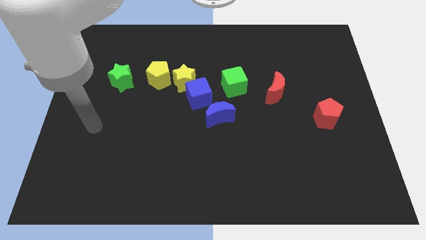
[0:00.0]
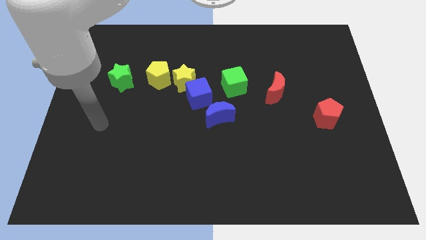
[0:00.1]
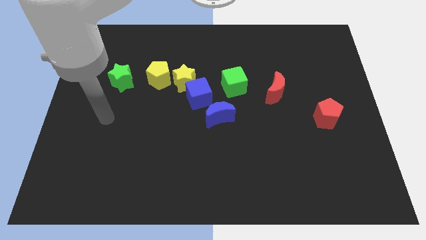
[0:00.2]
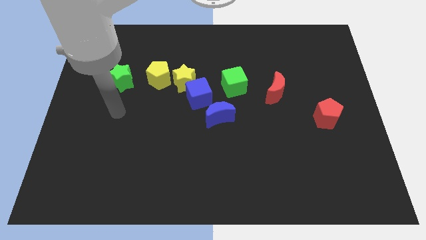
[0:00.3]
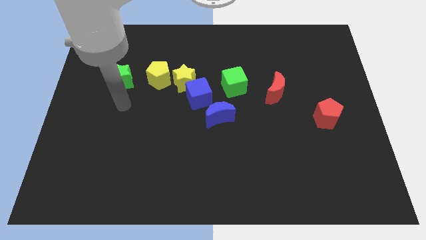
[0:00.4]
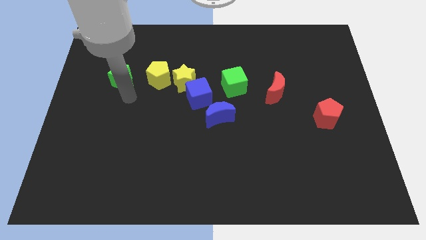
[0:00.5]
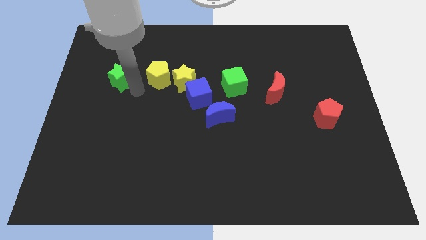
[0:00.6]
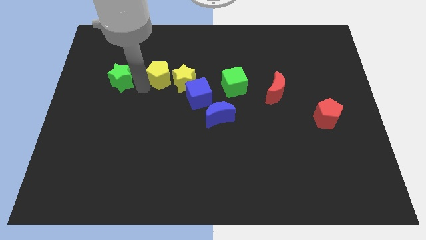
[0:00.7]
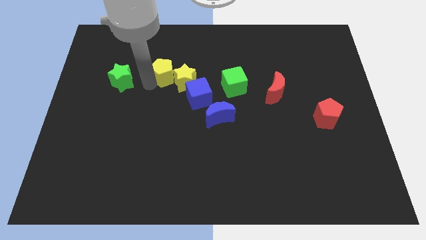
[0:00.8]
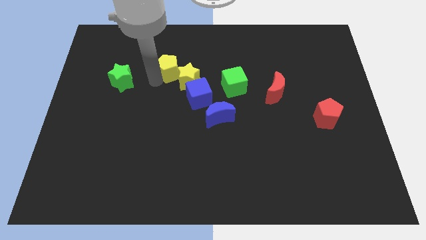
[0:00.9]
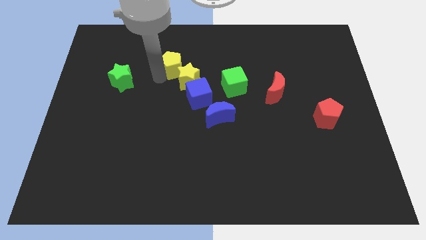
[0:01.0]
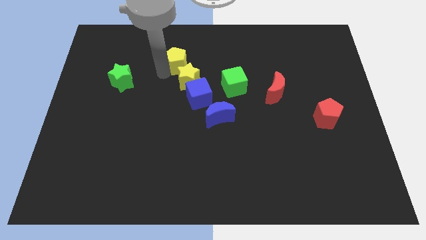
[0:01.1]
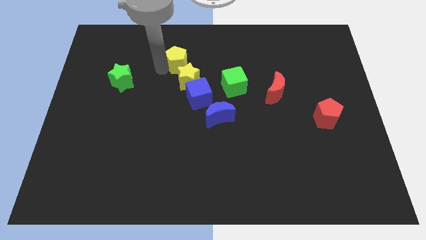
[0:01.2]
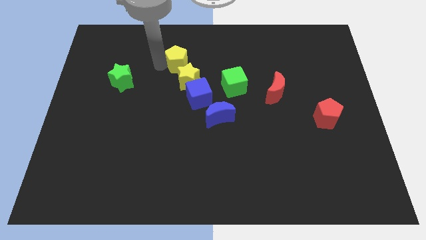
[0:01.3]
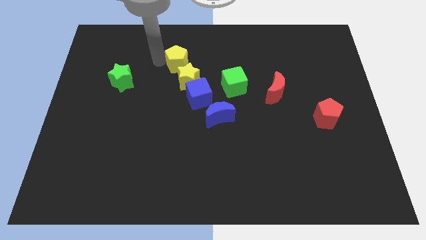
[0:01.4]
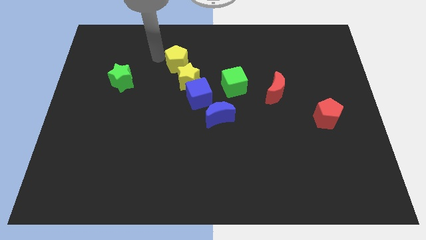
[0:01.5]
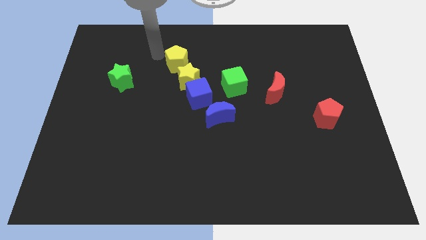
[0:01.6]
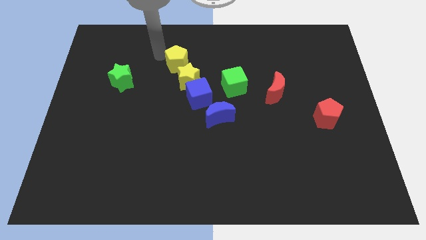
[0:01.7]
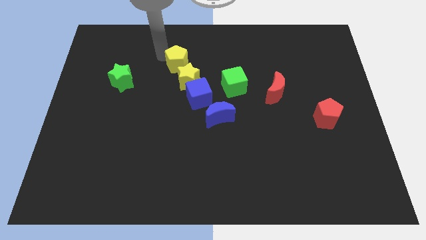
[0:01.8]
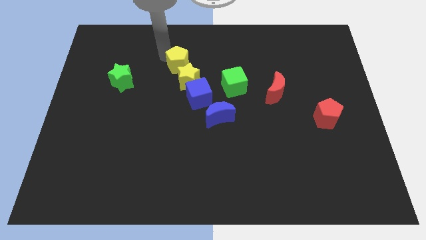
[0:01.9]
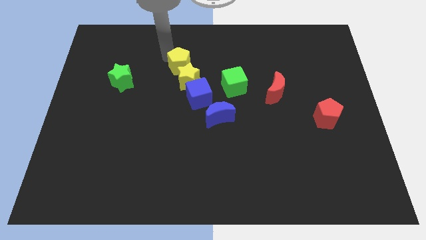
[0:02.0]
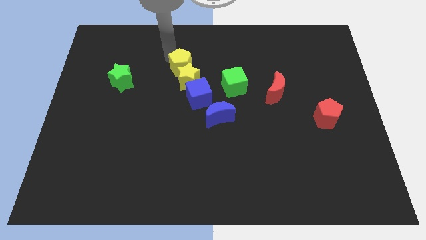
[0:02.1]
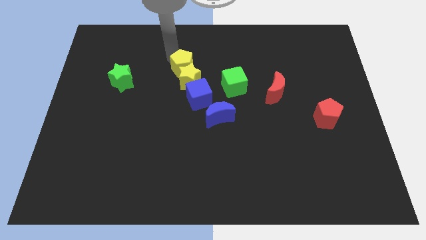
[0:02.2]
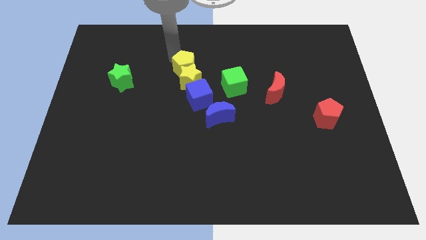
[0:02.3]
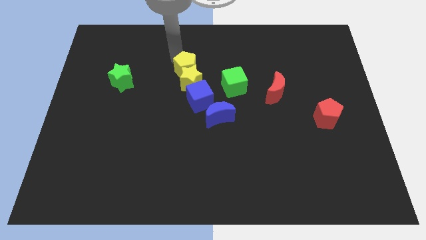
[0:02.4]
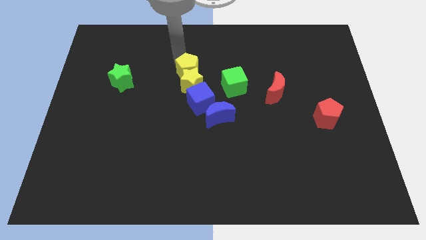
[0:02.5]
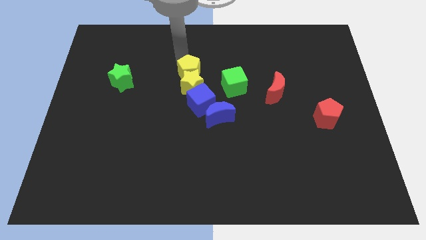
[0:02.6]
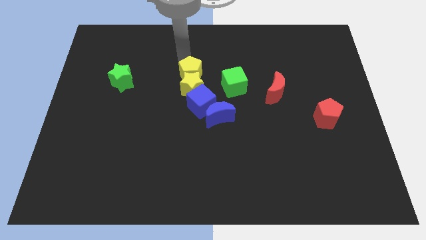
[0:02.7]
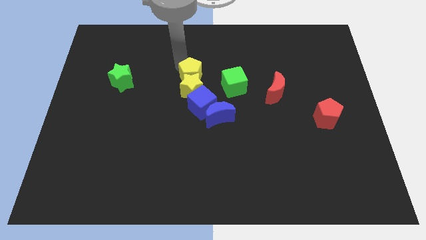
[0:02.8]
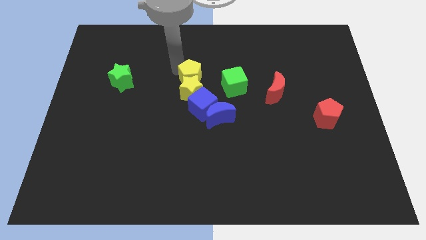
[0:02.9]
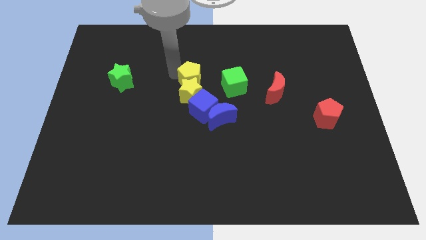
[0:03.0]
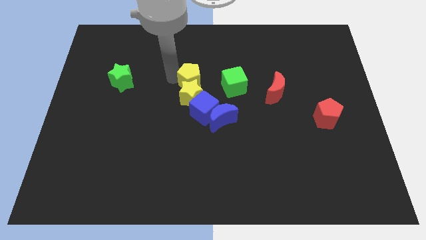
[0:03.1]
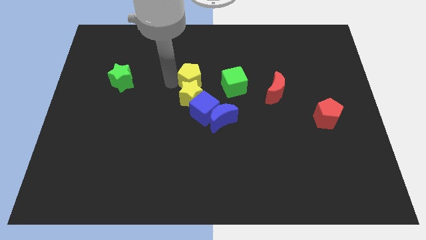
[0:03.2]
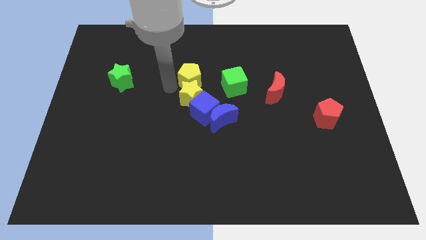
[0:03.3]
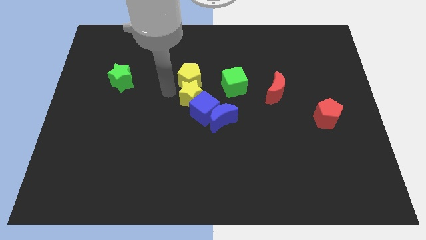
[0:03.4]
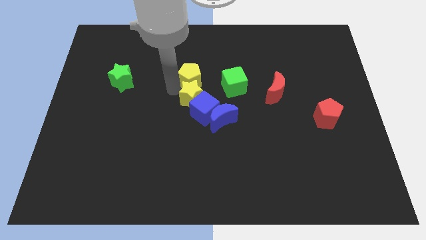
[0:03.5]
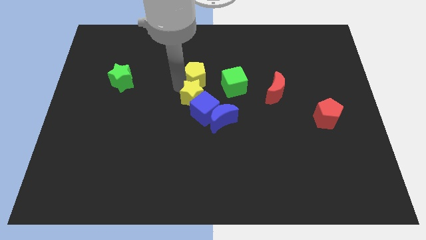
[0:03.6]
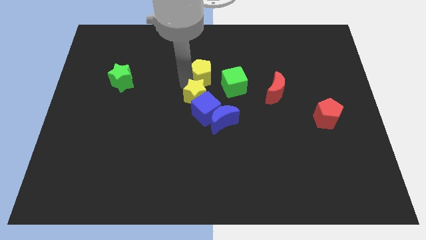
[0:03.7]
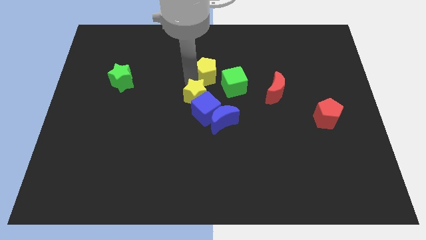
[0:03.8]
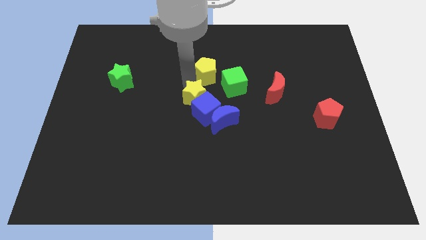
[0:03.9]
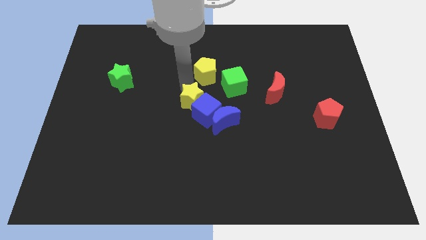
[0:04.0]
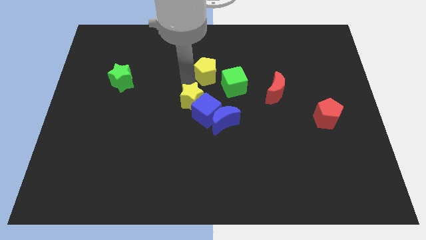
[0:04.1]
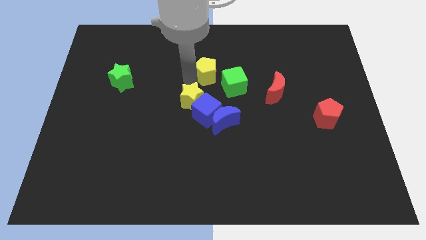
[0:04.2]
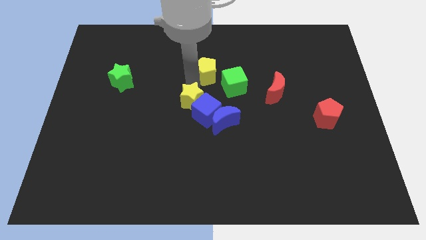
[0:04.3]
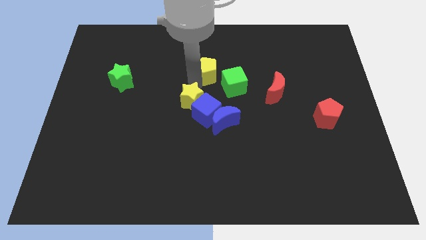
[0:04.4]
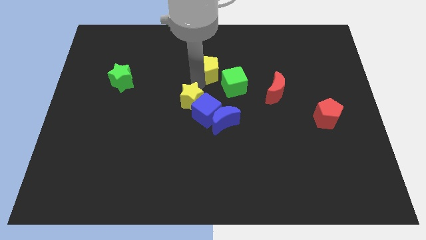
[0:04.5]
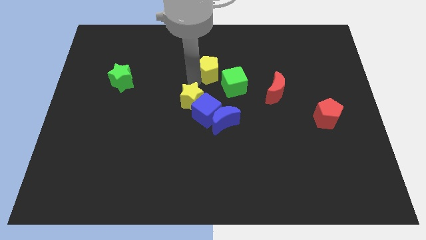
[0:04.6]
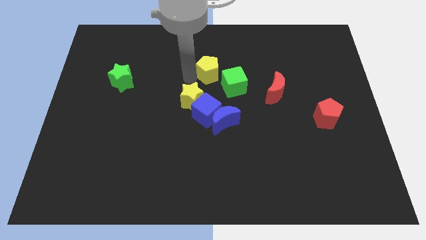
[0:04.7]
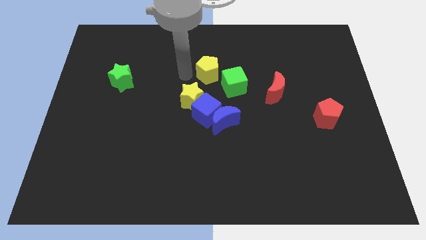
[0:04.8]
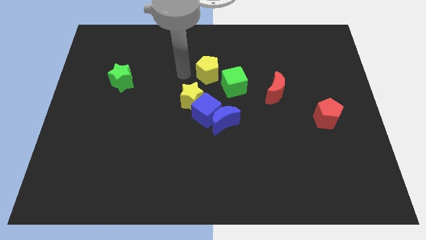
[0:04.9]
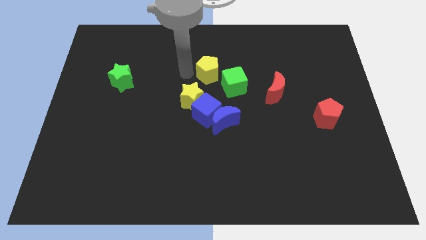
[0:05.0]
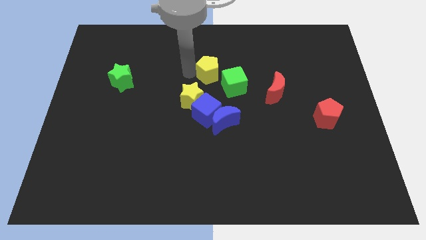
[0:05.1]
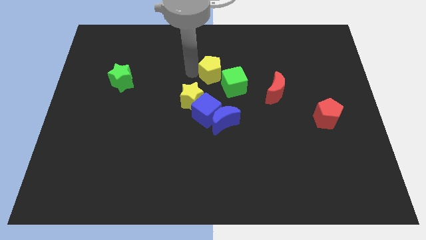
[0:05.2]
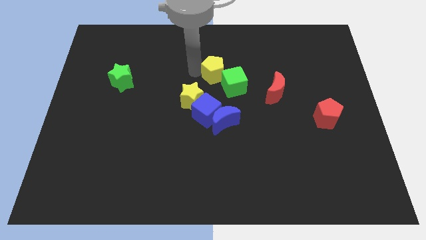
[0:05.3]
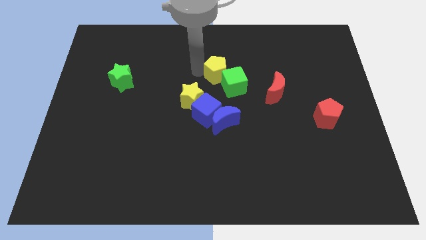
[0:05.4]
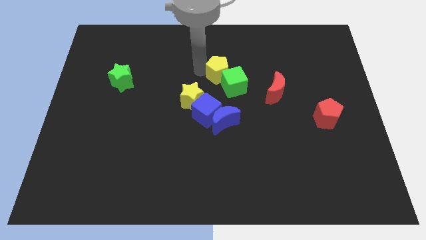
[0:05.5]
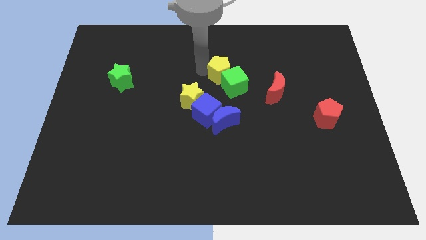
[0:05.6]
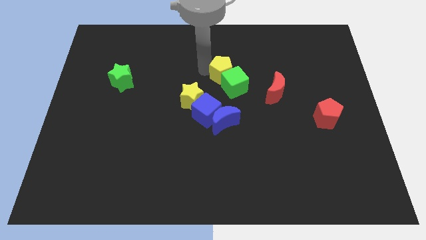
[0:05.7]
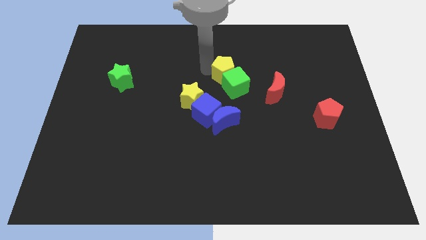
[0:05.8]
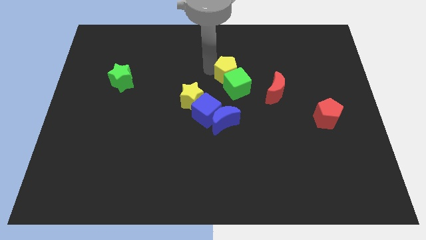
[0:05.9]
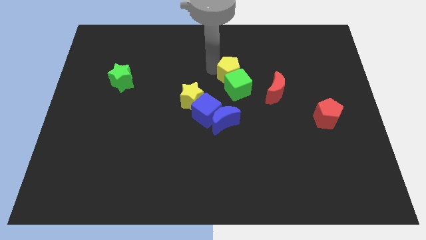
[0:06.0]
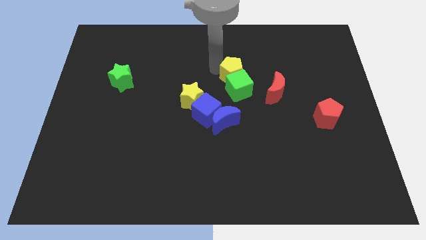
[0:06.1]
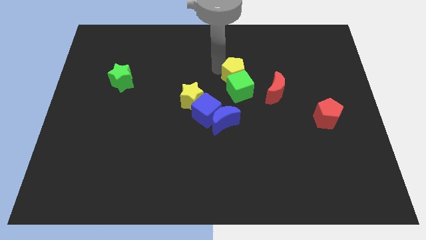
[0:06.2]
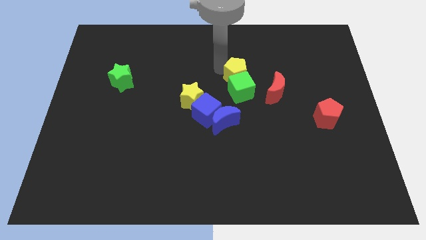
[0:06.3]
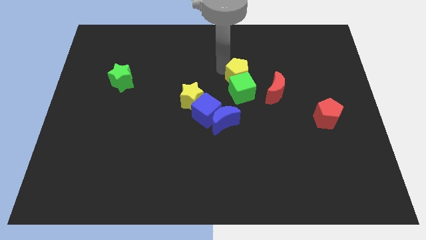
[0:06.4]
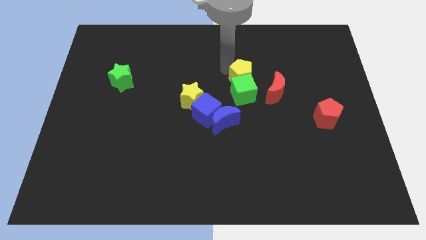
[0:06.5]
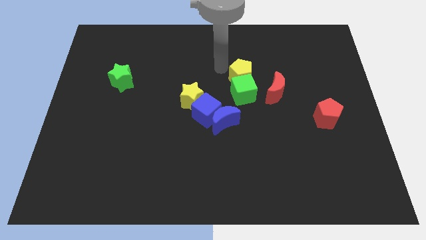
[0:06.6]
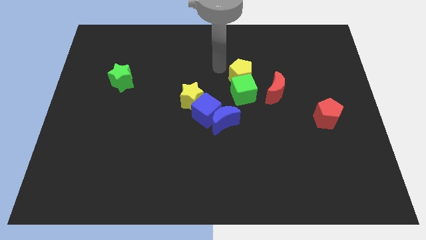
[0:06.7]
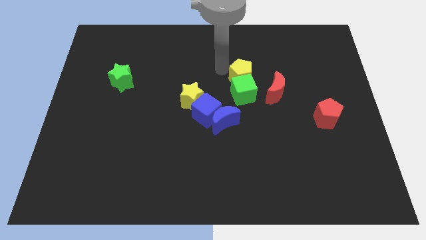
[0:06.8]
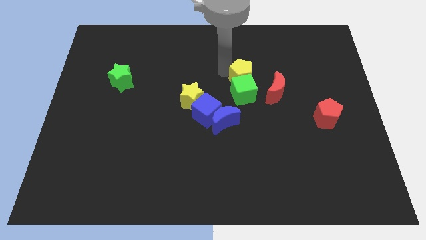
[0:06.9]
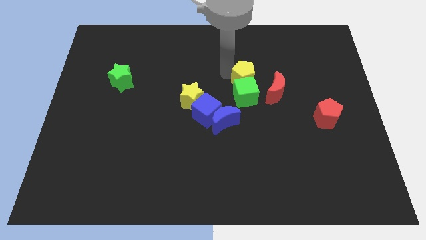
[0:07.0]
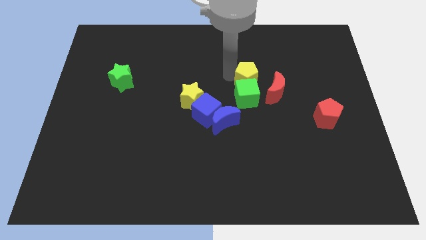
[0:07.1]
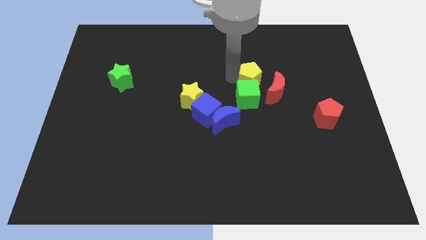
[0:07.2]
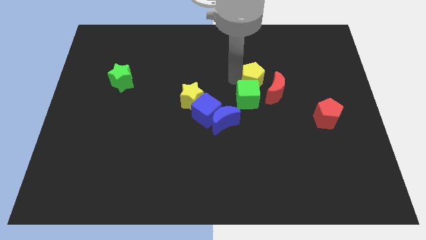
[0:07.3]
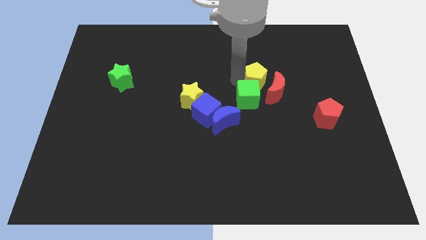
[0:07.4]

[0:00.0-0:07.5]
slide the yellow pentagon close to the red moon

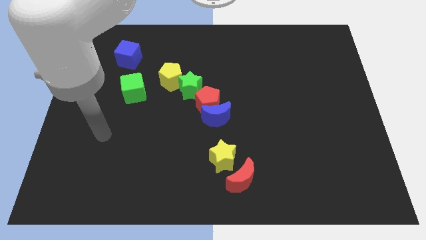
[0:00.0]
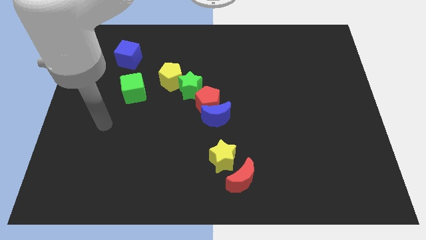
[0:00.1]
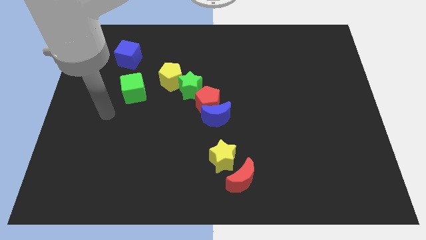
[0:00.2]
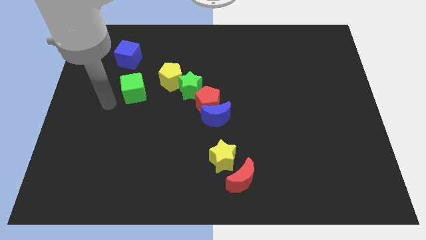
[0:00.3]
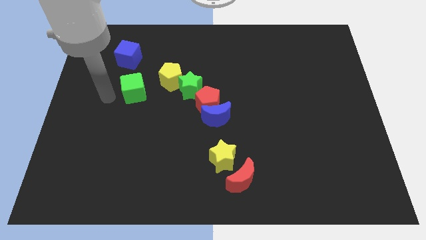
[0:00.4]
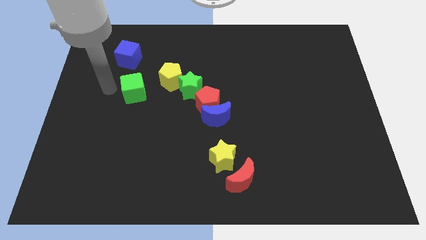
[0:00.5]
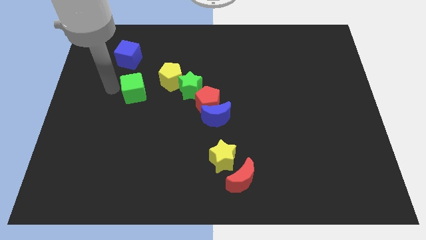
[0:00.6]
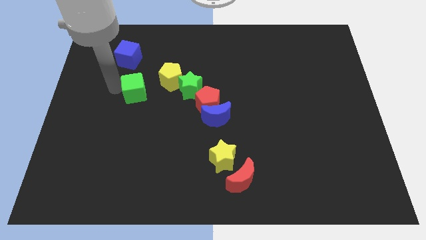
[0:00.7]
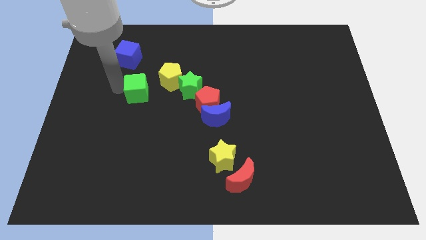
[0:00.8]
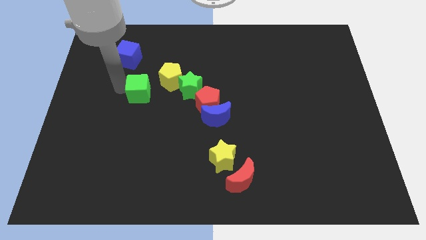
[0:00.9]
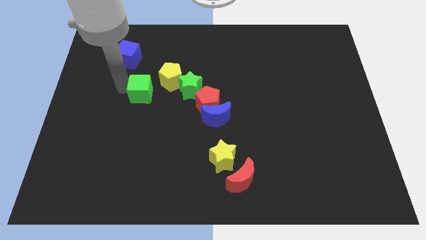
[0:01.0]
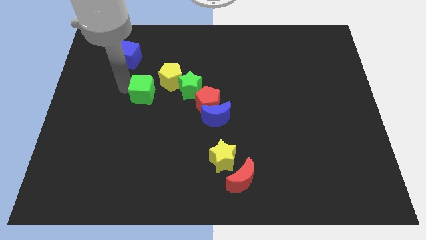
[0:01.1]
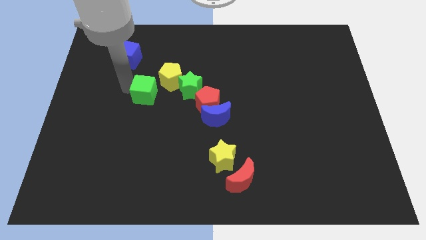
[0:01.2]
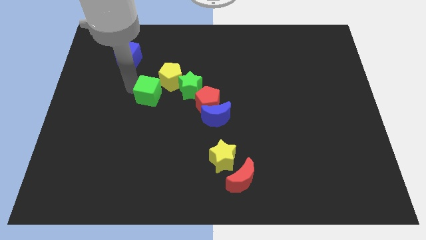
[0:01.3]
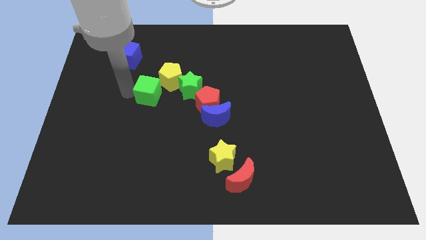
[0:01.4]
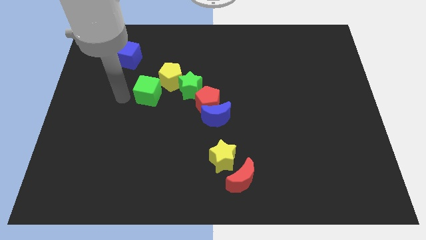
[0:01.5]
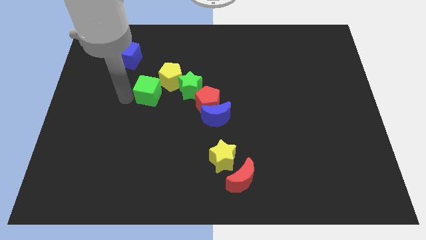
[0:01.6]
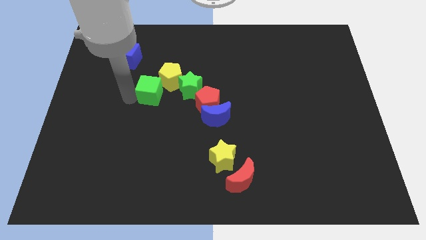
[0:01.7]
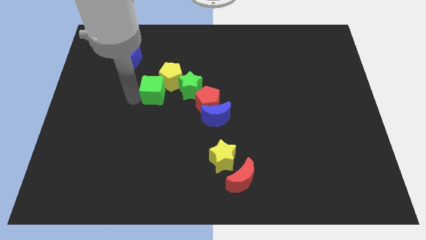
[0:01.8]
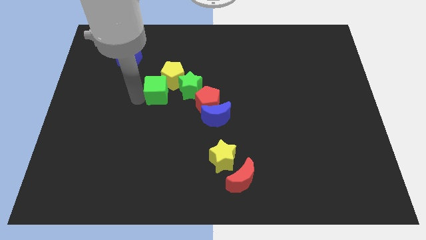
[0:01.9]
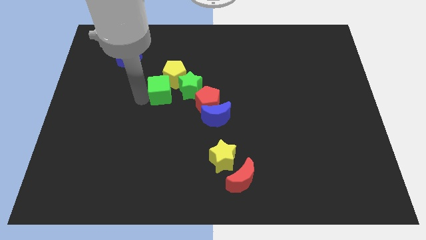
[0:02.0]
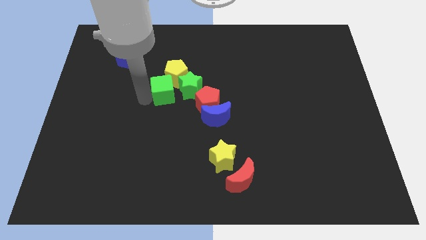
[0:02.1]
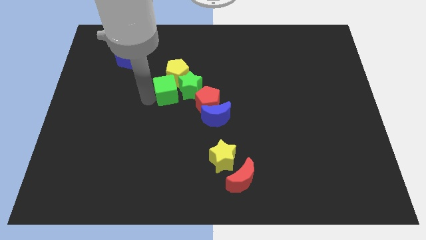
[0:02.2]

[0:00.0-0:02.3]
slide the green cube to the green star
